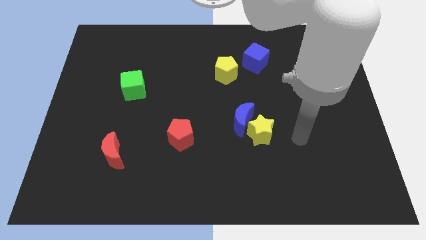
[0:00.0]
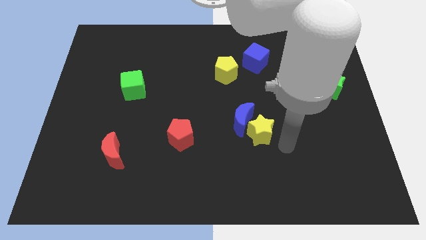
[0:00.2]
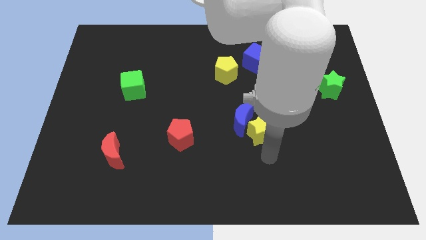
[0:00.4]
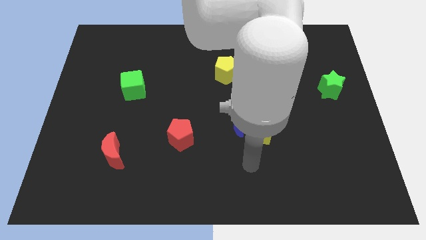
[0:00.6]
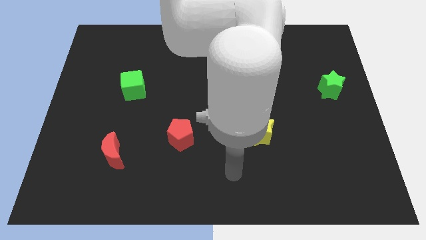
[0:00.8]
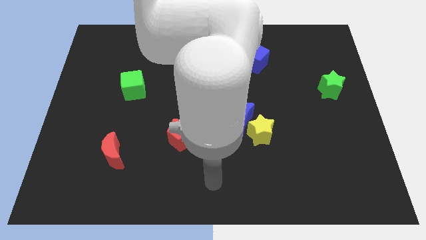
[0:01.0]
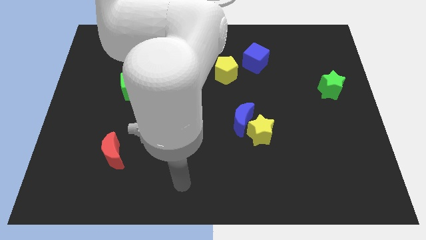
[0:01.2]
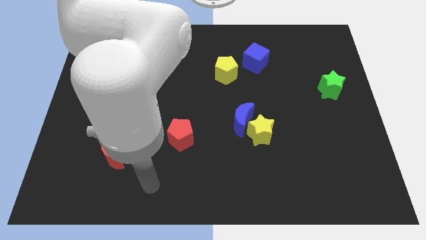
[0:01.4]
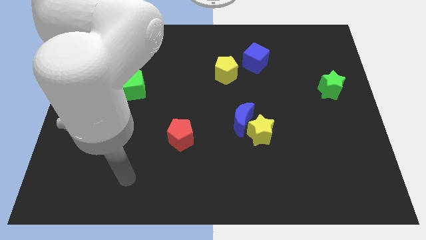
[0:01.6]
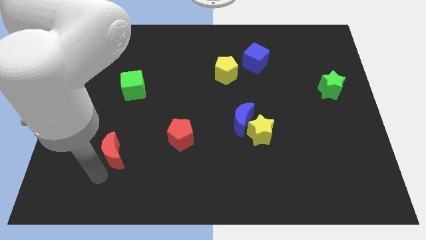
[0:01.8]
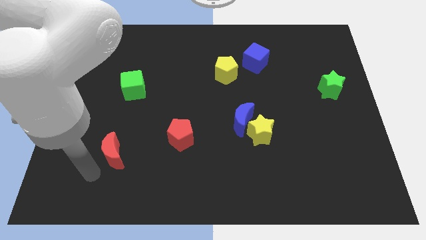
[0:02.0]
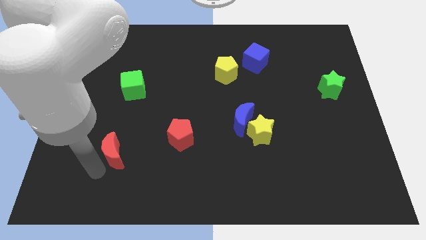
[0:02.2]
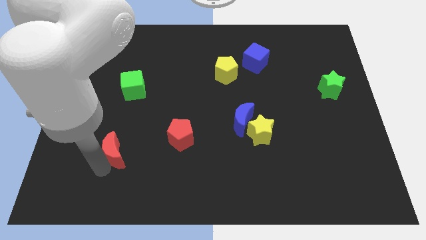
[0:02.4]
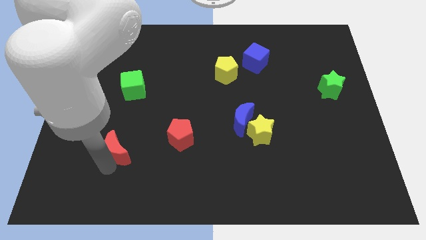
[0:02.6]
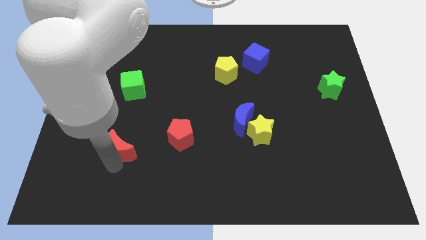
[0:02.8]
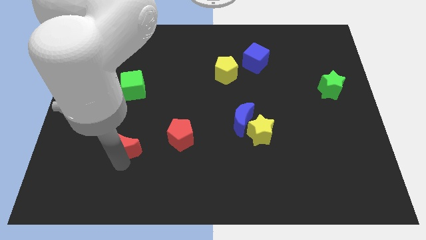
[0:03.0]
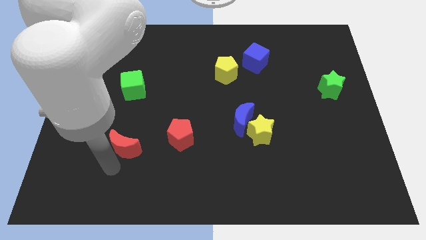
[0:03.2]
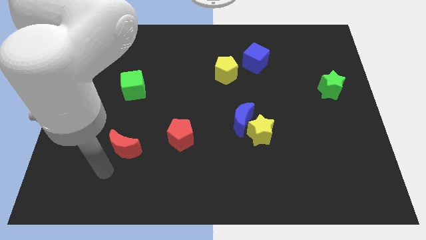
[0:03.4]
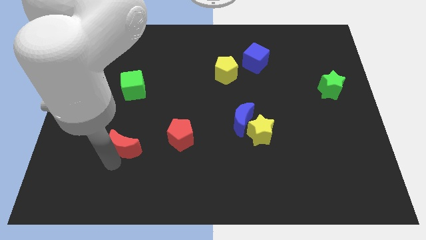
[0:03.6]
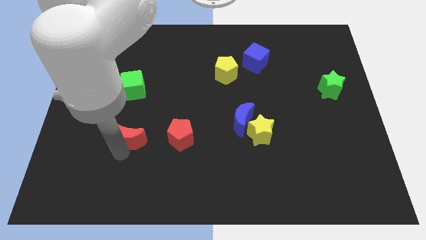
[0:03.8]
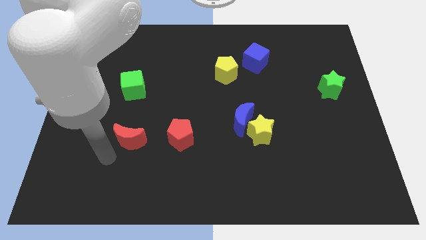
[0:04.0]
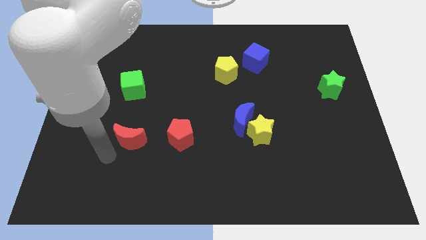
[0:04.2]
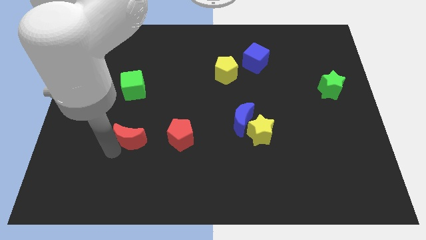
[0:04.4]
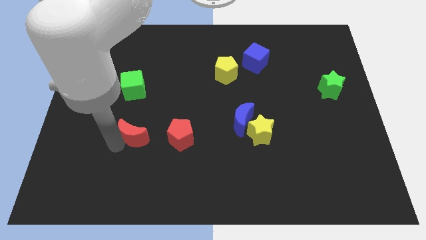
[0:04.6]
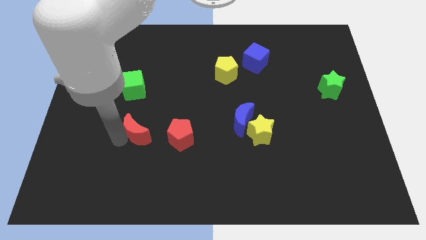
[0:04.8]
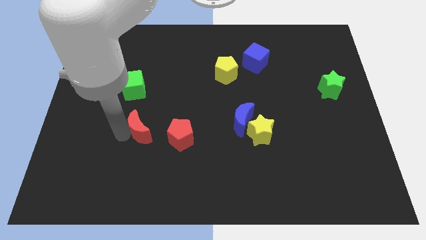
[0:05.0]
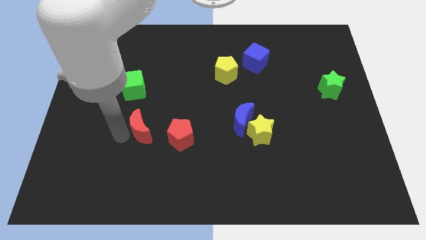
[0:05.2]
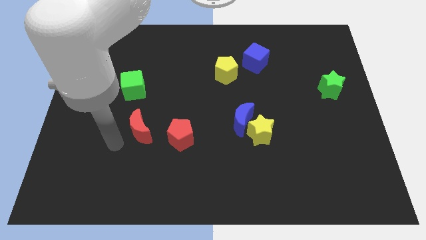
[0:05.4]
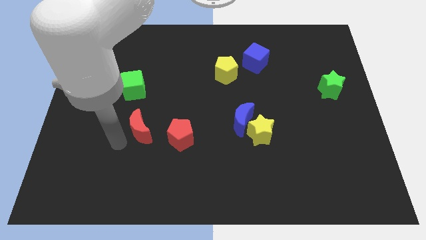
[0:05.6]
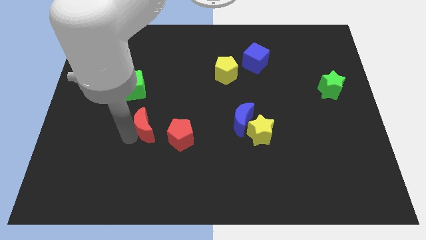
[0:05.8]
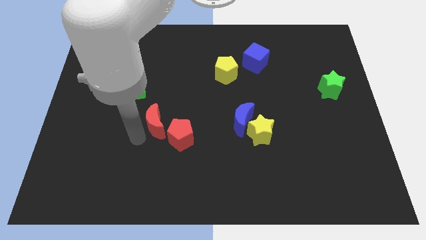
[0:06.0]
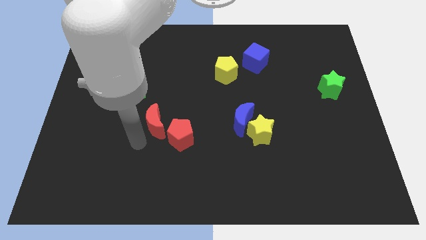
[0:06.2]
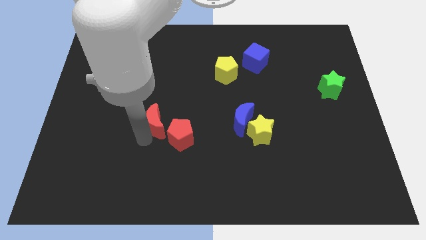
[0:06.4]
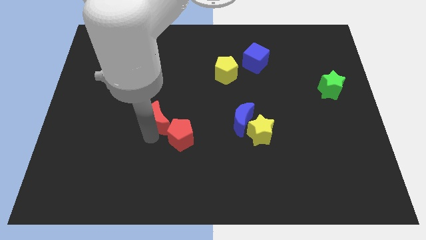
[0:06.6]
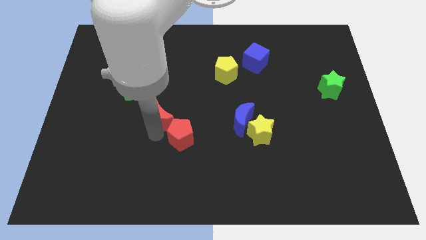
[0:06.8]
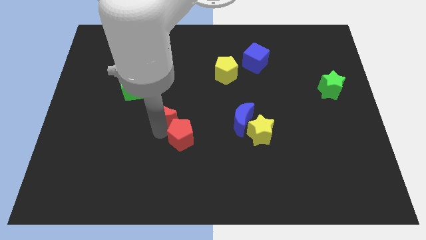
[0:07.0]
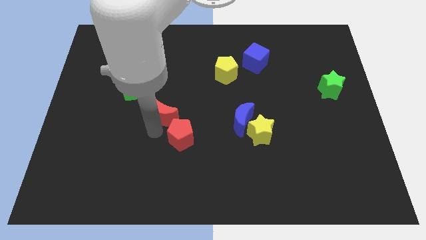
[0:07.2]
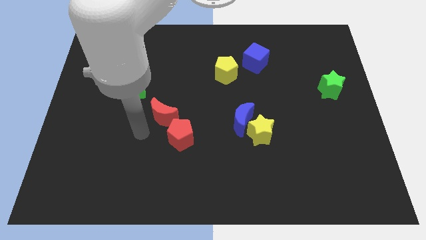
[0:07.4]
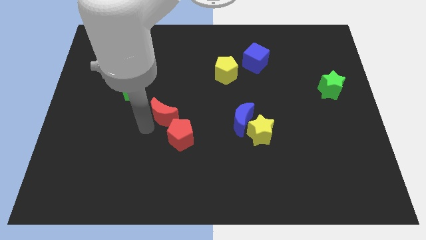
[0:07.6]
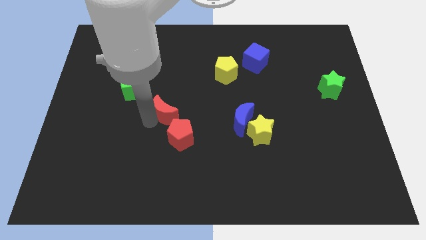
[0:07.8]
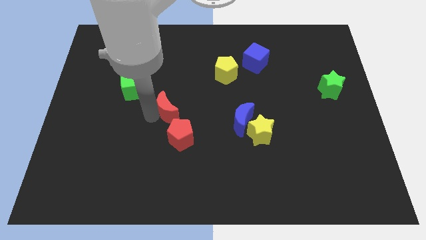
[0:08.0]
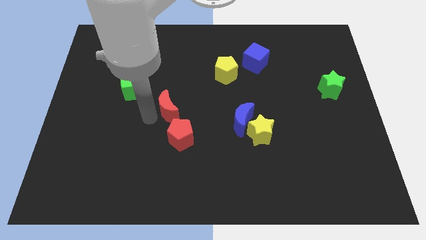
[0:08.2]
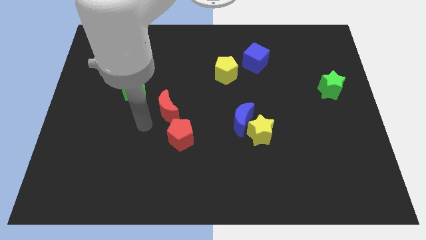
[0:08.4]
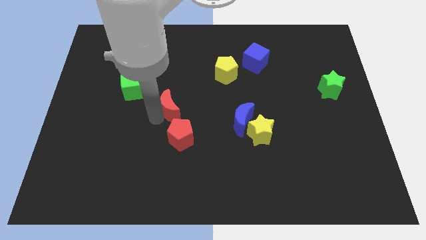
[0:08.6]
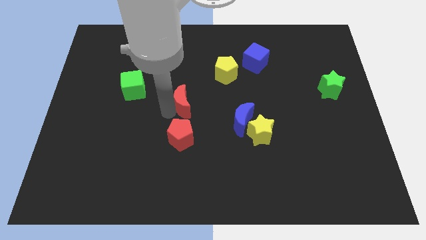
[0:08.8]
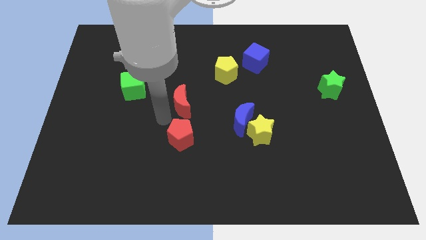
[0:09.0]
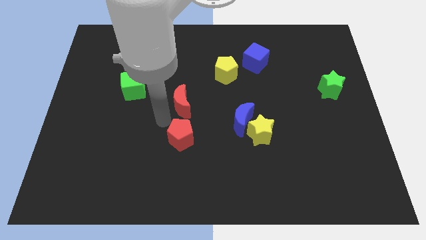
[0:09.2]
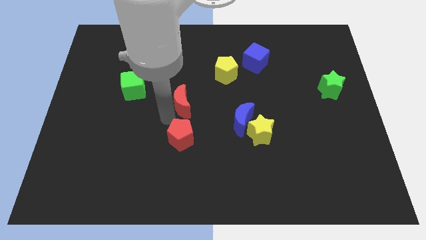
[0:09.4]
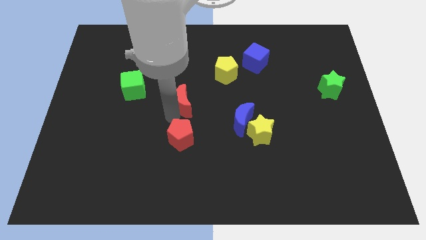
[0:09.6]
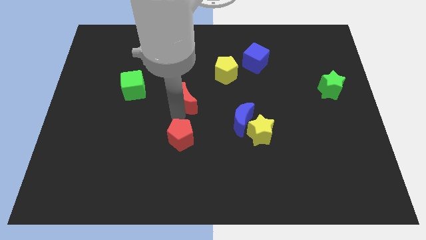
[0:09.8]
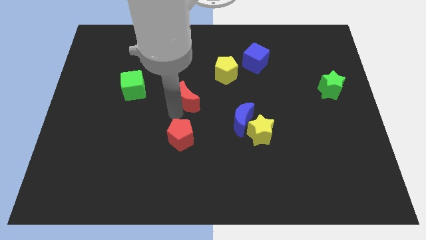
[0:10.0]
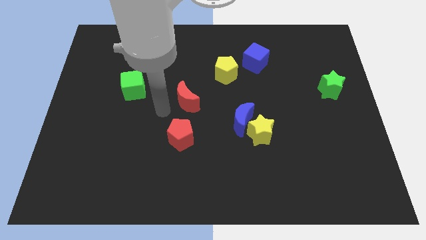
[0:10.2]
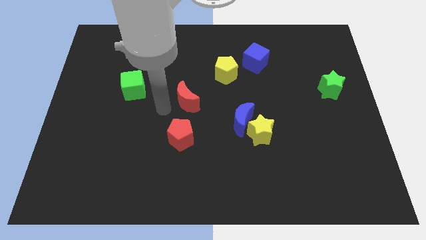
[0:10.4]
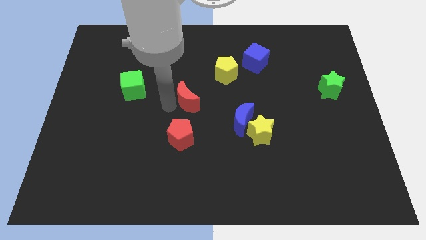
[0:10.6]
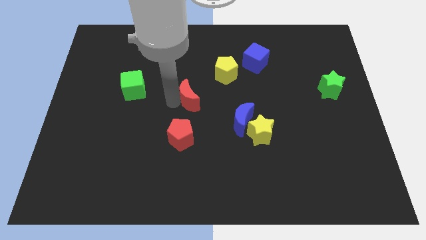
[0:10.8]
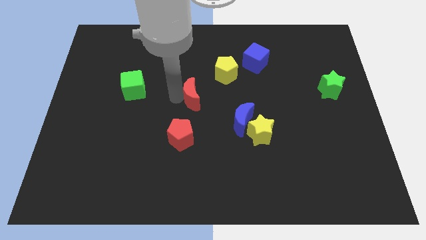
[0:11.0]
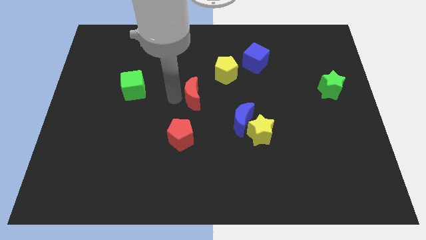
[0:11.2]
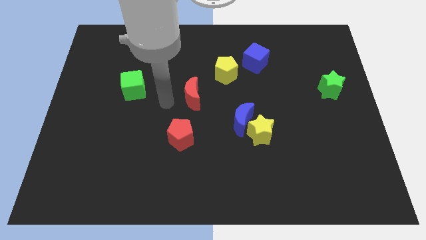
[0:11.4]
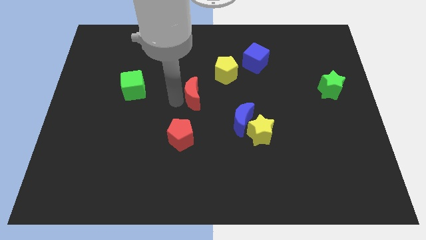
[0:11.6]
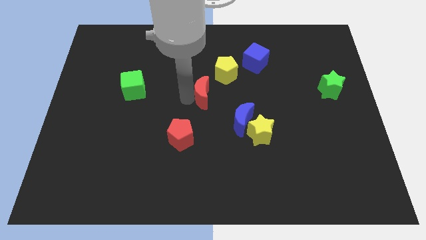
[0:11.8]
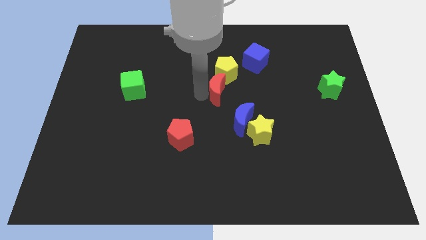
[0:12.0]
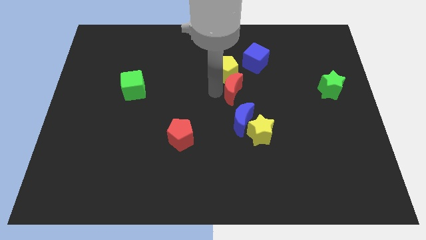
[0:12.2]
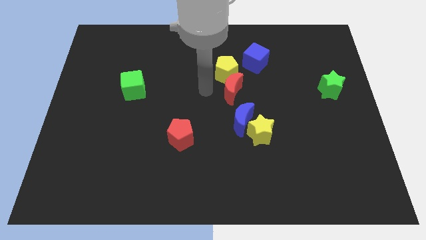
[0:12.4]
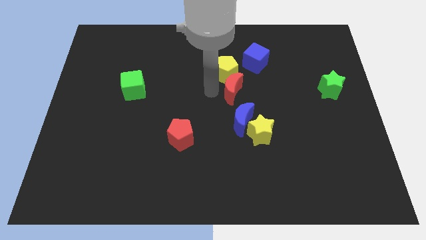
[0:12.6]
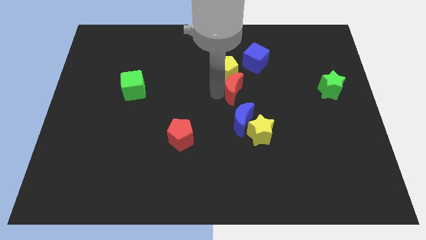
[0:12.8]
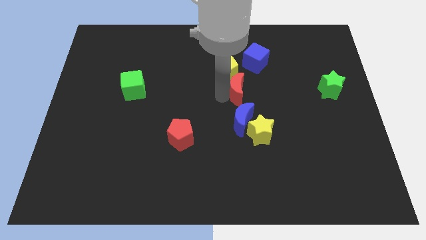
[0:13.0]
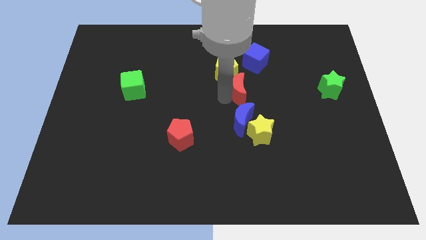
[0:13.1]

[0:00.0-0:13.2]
push the red moon below the blue cube

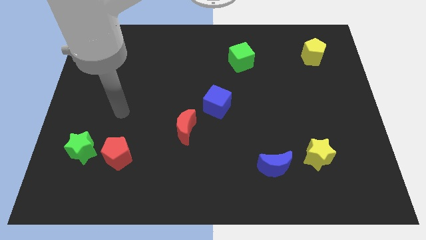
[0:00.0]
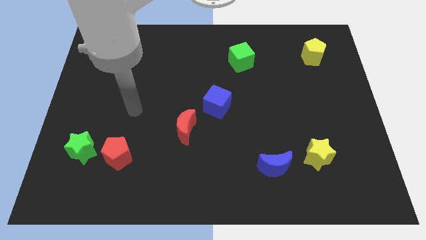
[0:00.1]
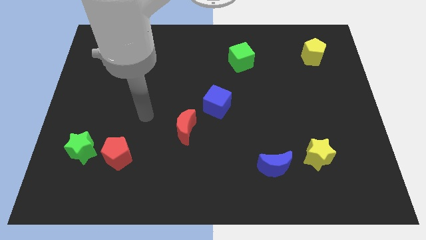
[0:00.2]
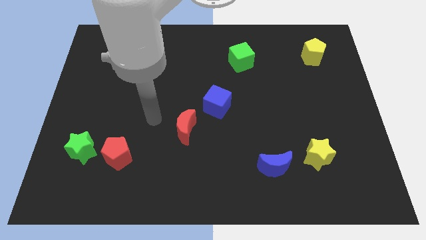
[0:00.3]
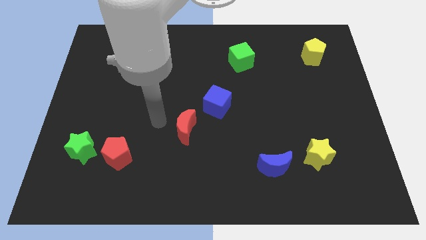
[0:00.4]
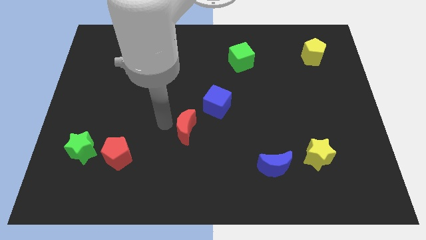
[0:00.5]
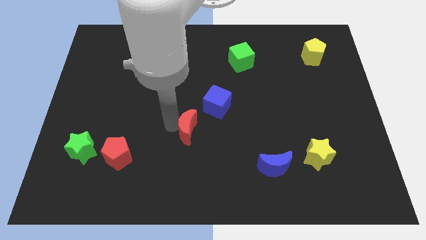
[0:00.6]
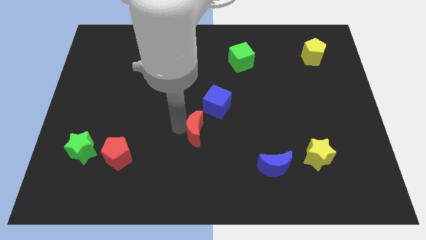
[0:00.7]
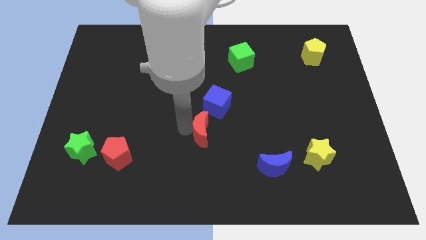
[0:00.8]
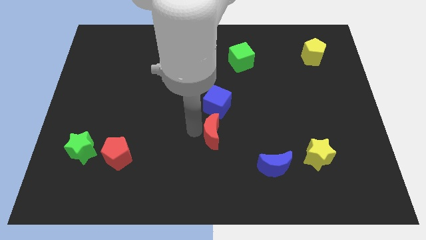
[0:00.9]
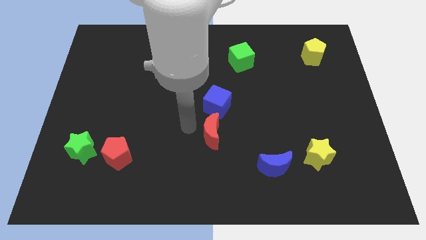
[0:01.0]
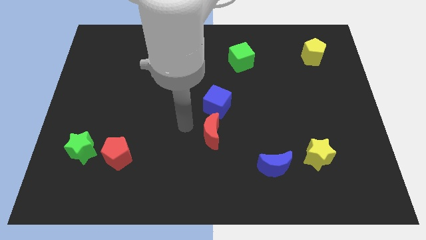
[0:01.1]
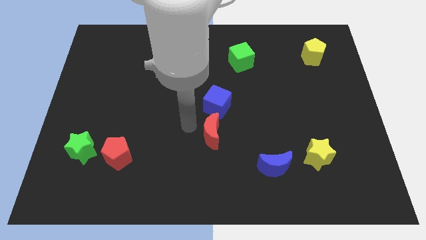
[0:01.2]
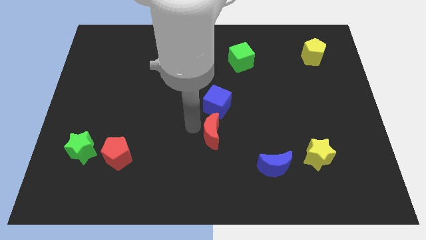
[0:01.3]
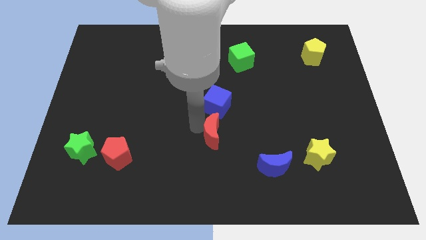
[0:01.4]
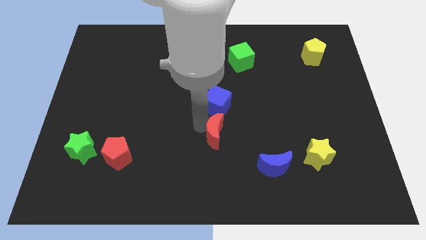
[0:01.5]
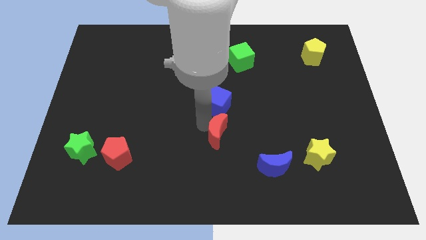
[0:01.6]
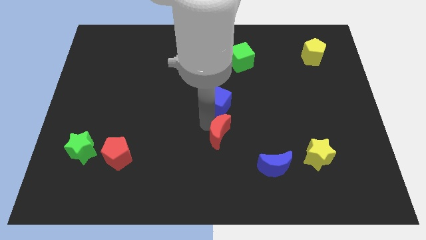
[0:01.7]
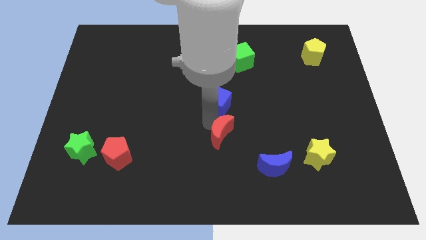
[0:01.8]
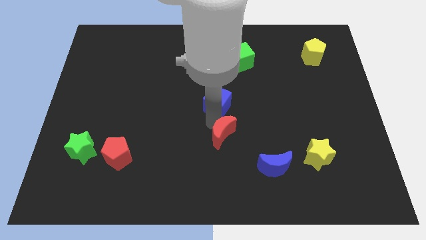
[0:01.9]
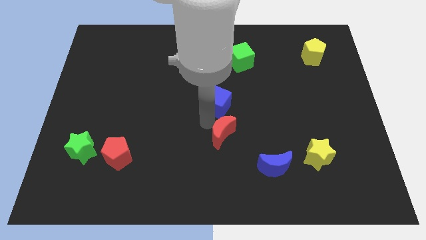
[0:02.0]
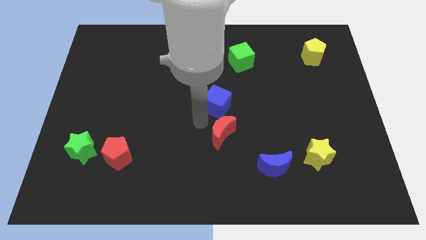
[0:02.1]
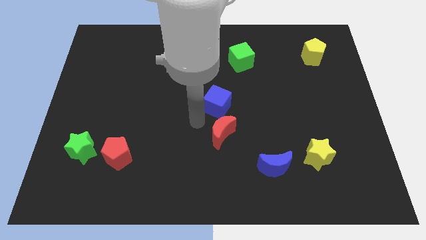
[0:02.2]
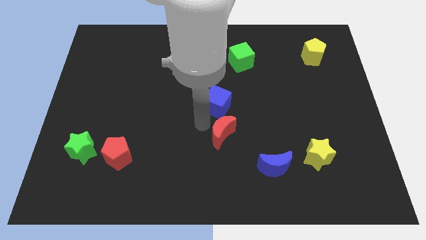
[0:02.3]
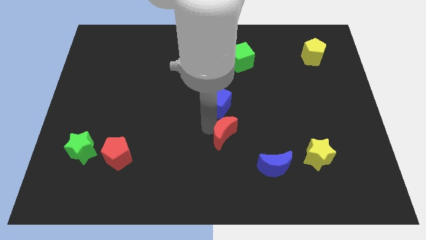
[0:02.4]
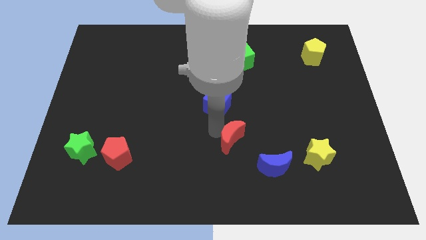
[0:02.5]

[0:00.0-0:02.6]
push the red moon diagonally up and to the left of the blue moon
